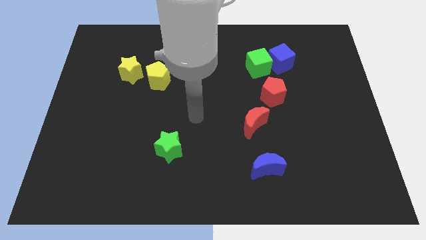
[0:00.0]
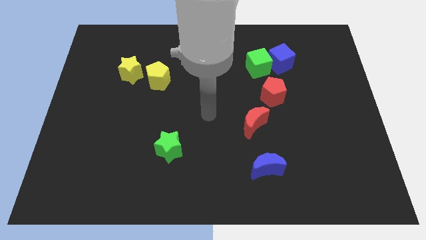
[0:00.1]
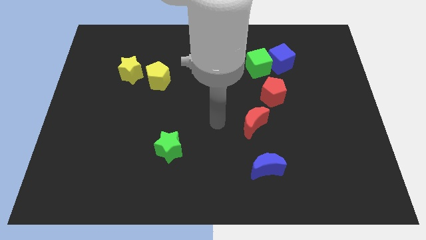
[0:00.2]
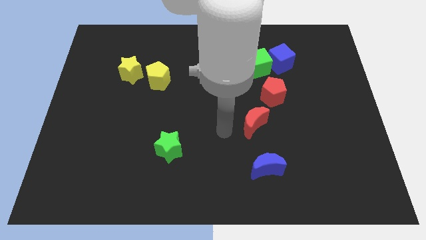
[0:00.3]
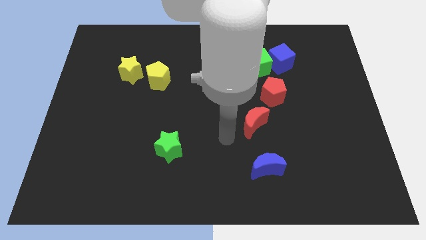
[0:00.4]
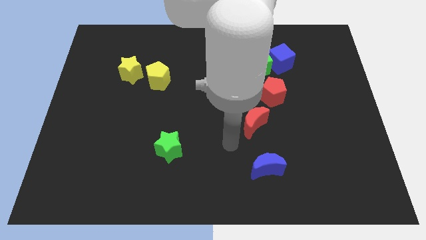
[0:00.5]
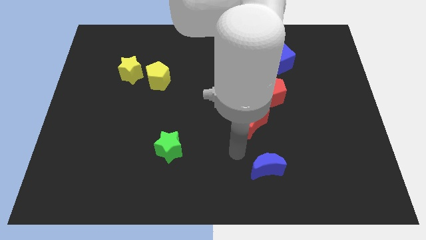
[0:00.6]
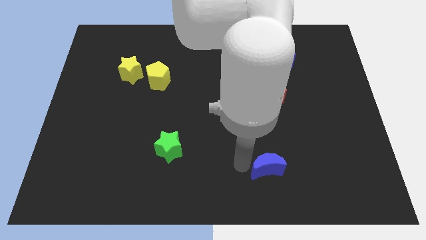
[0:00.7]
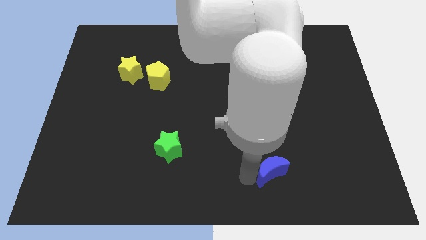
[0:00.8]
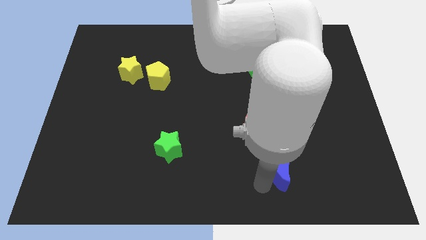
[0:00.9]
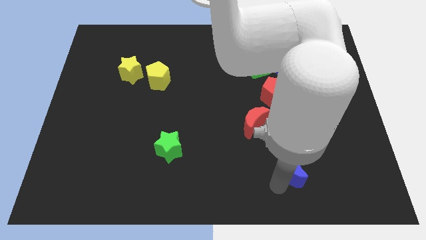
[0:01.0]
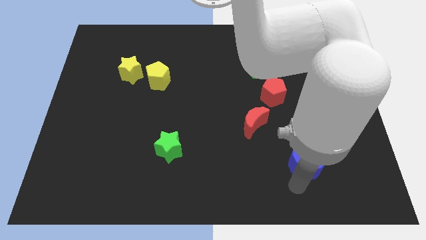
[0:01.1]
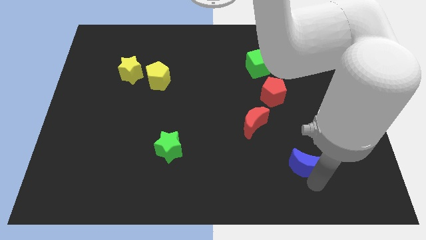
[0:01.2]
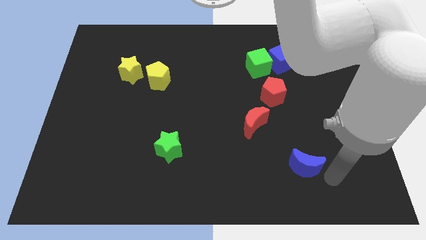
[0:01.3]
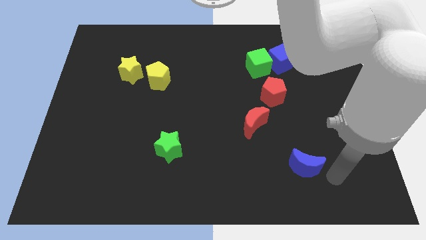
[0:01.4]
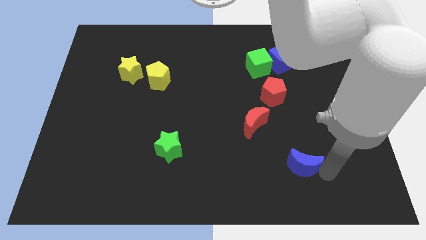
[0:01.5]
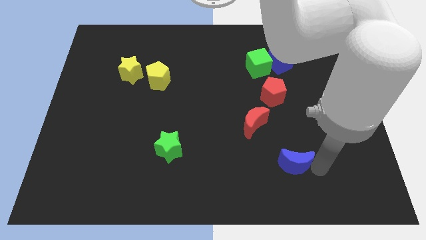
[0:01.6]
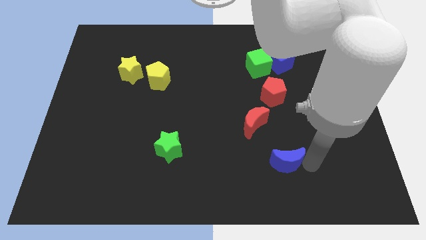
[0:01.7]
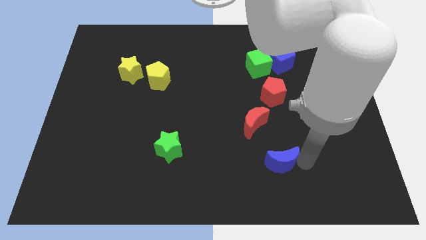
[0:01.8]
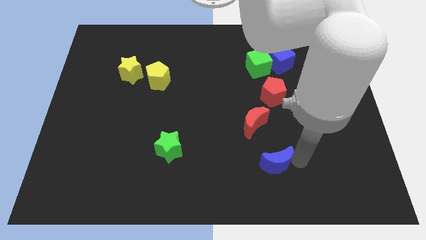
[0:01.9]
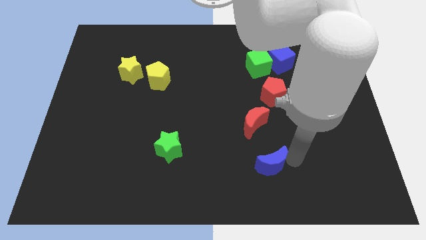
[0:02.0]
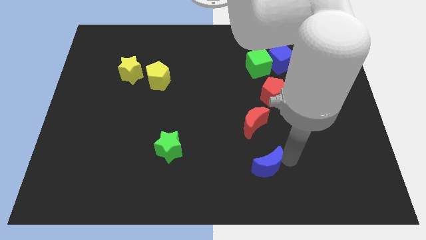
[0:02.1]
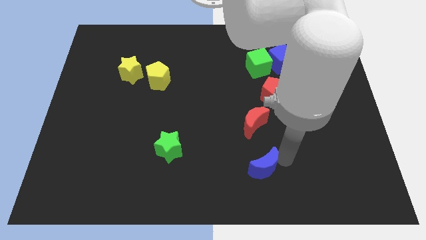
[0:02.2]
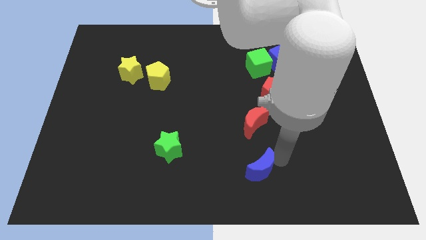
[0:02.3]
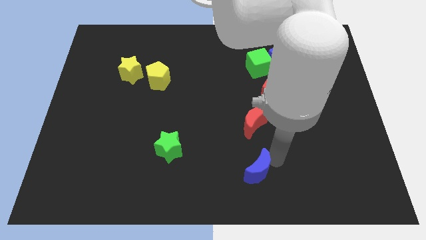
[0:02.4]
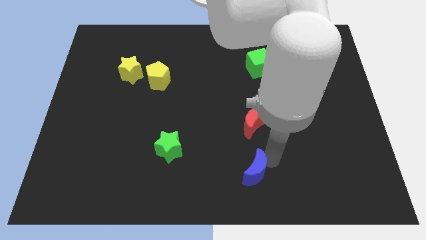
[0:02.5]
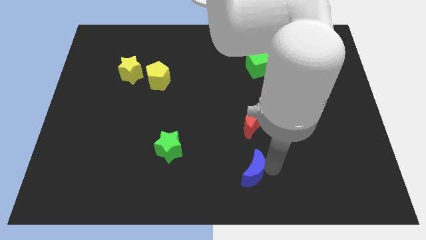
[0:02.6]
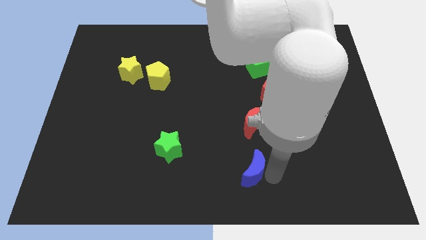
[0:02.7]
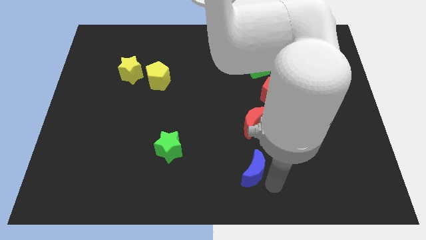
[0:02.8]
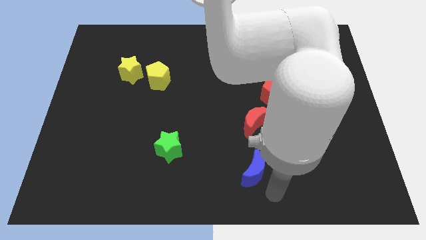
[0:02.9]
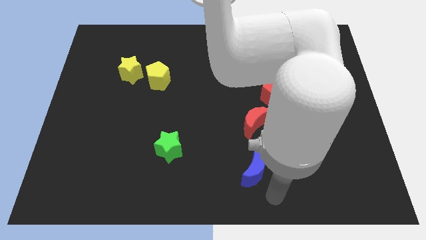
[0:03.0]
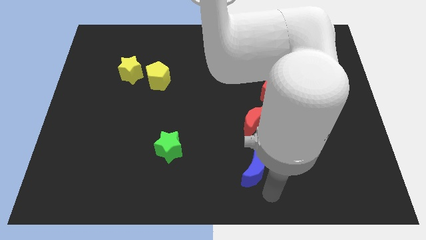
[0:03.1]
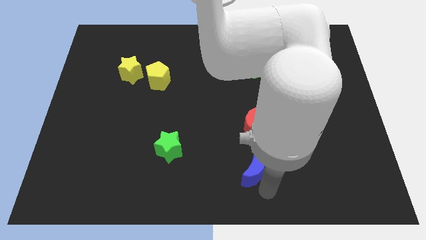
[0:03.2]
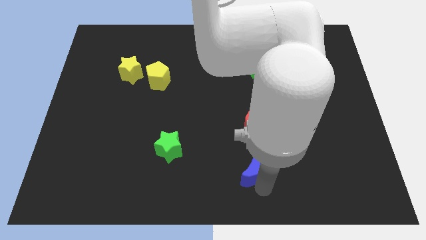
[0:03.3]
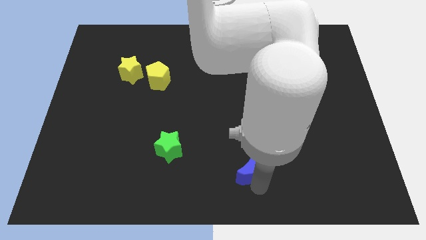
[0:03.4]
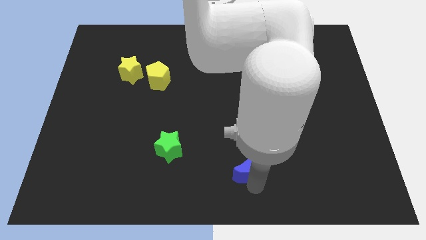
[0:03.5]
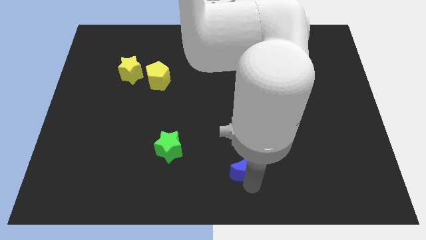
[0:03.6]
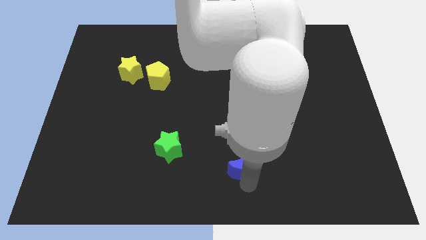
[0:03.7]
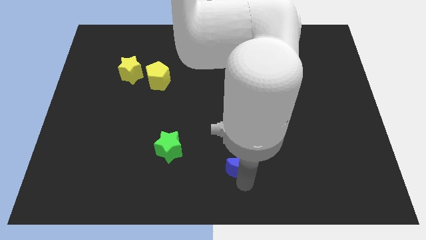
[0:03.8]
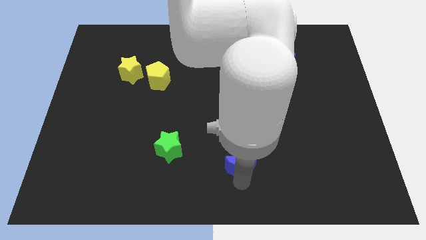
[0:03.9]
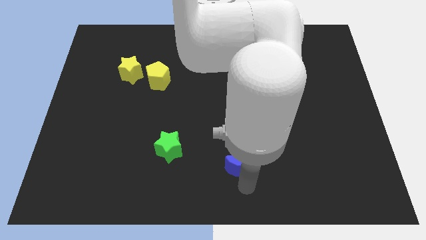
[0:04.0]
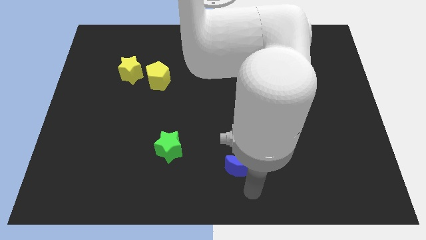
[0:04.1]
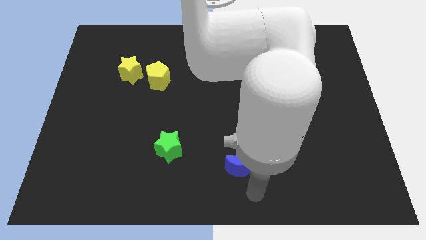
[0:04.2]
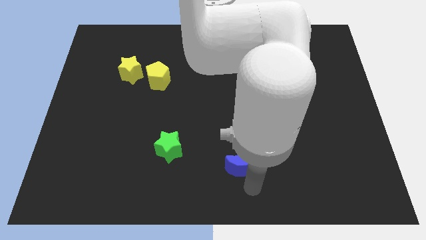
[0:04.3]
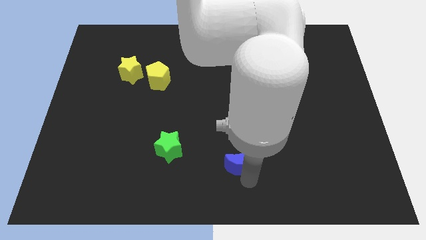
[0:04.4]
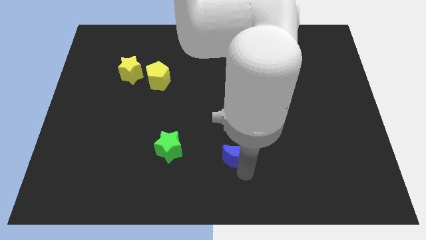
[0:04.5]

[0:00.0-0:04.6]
put the blue moon to the bottom left side of the red moon

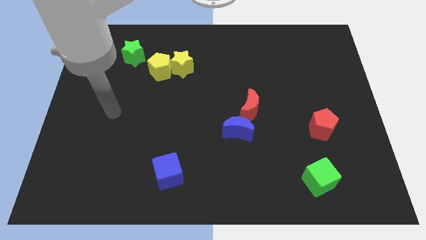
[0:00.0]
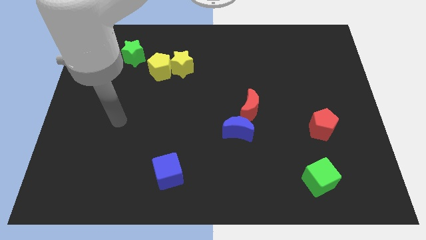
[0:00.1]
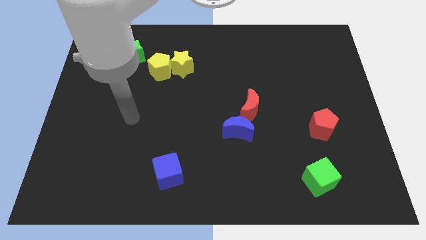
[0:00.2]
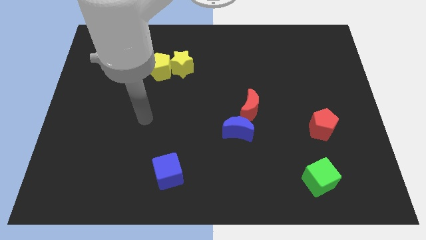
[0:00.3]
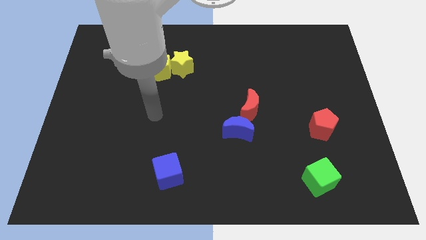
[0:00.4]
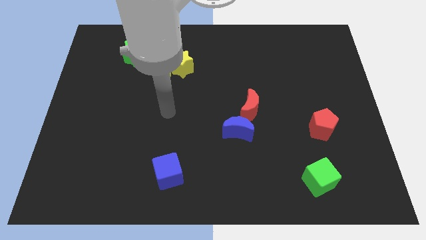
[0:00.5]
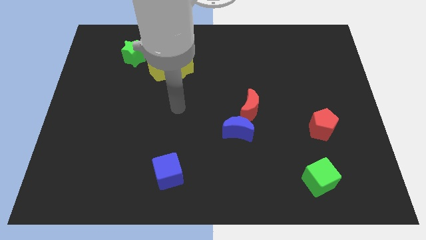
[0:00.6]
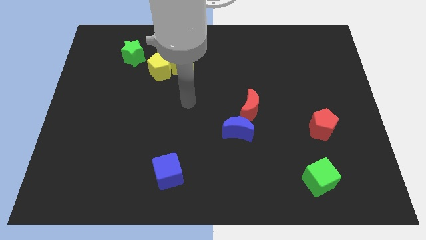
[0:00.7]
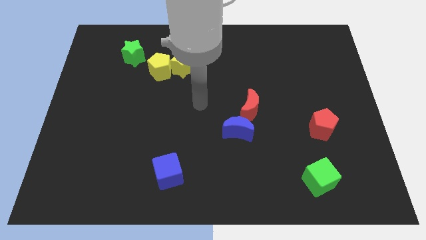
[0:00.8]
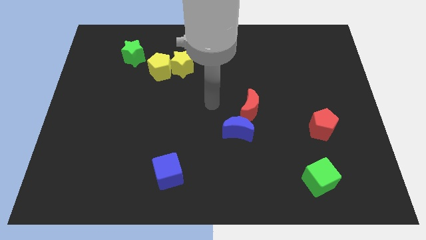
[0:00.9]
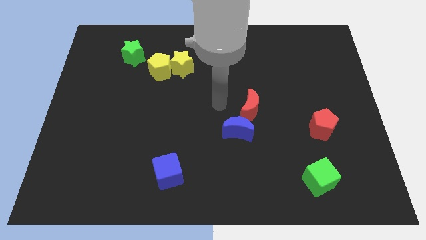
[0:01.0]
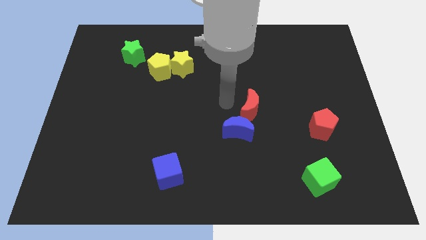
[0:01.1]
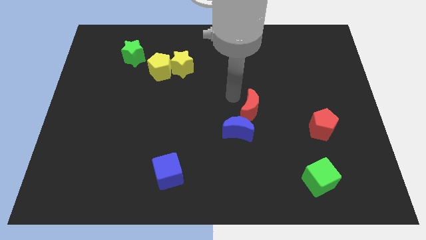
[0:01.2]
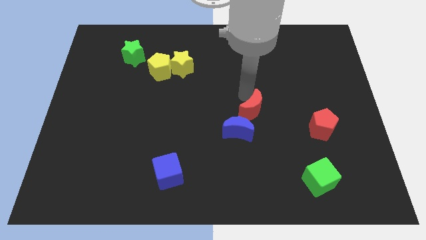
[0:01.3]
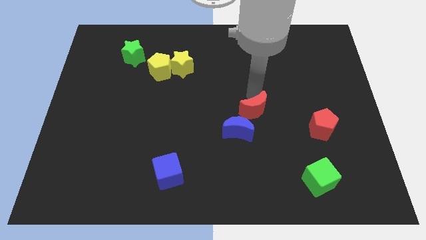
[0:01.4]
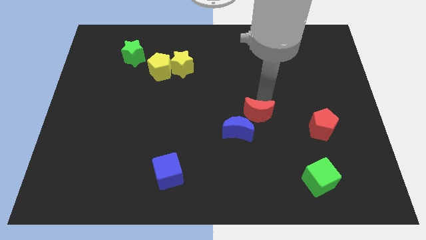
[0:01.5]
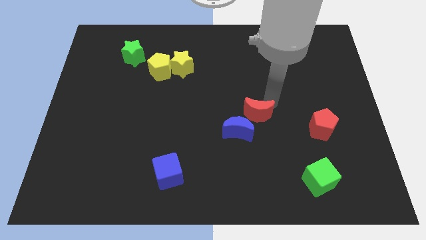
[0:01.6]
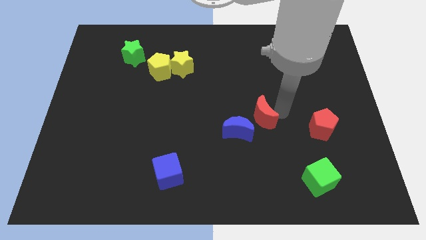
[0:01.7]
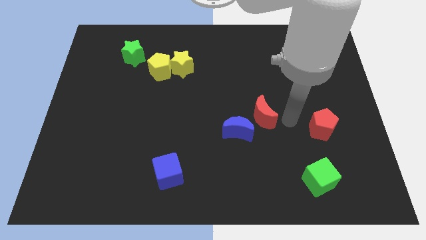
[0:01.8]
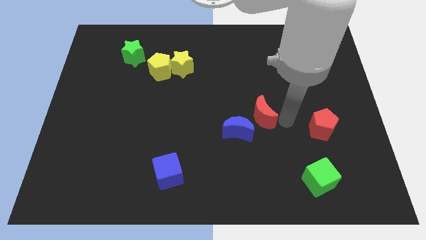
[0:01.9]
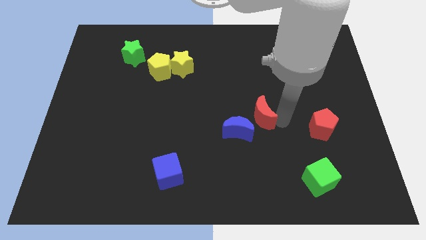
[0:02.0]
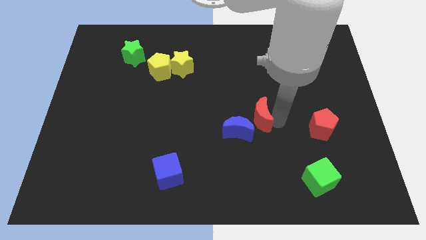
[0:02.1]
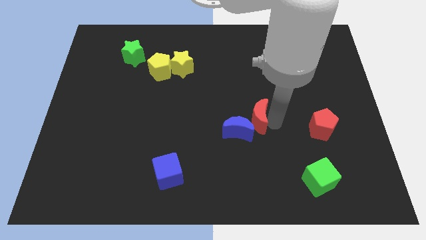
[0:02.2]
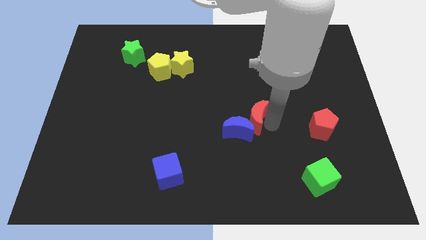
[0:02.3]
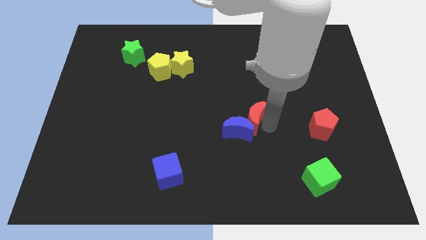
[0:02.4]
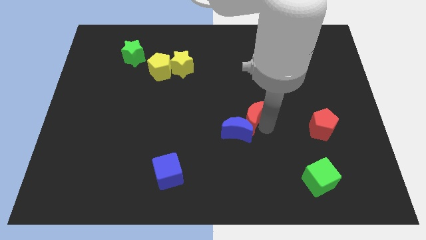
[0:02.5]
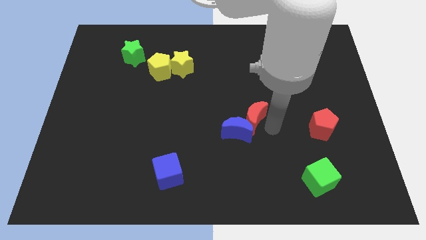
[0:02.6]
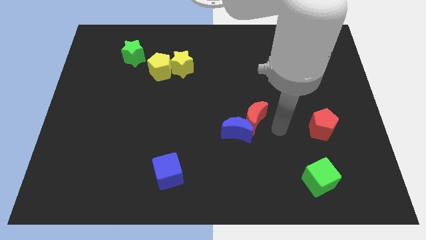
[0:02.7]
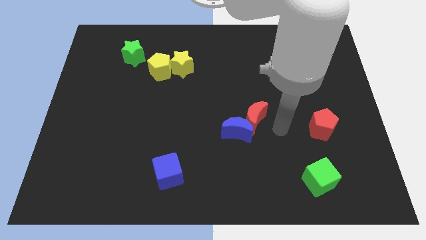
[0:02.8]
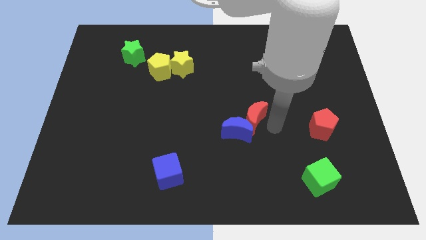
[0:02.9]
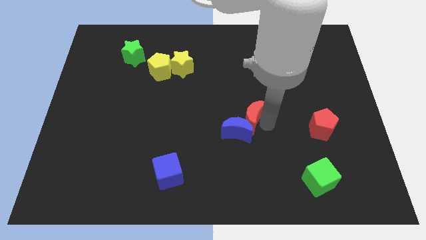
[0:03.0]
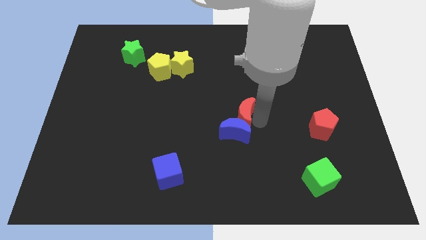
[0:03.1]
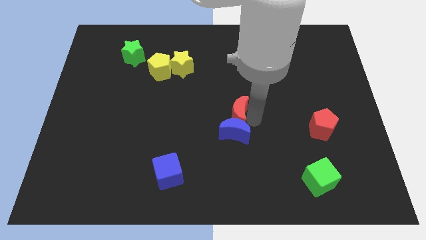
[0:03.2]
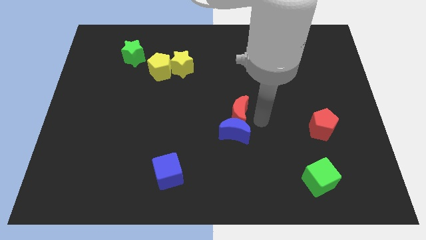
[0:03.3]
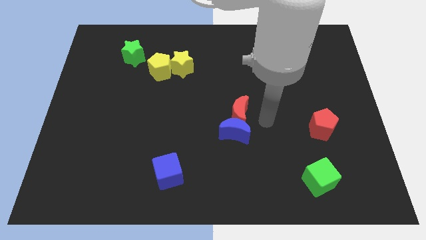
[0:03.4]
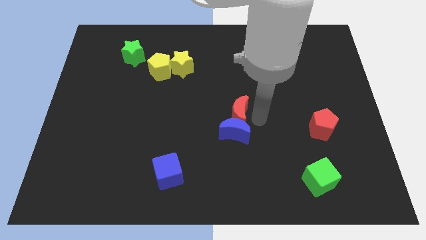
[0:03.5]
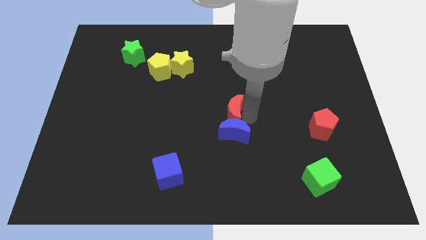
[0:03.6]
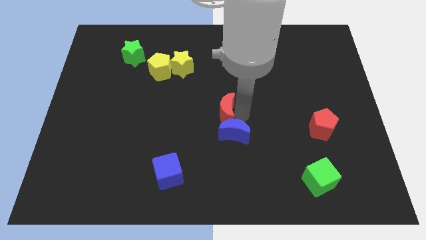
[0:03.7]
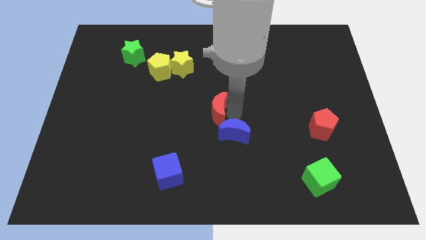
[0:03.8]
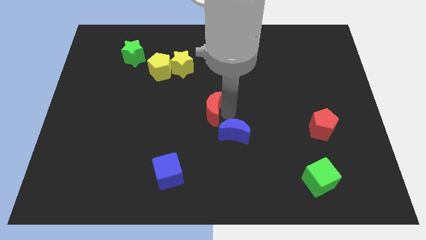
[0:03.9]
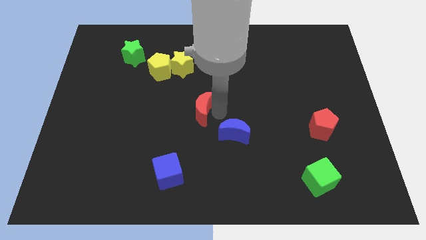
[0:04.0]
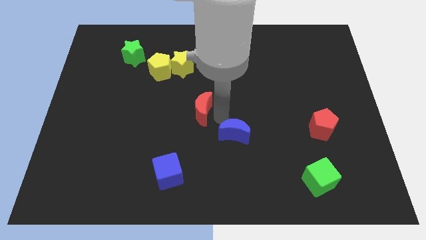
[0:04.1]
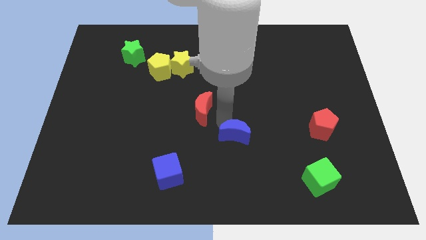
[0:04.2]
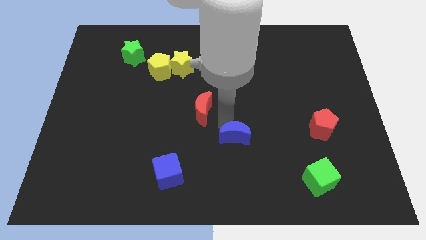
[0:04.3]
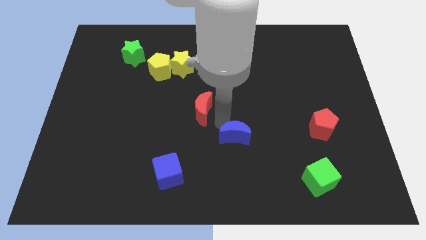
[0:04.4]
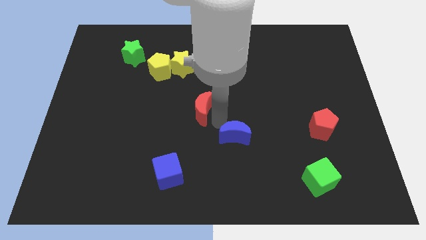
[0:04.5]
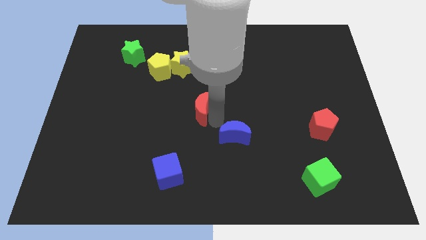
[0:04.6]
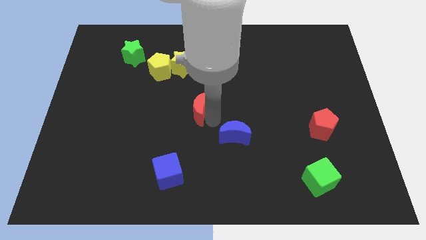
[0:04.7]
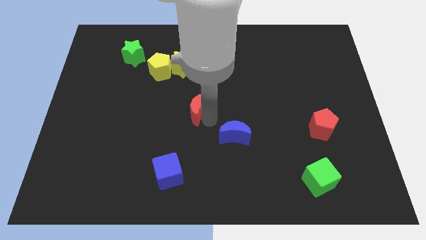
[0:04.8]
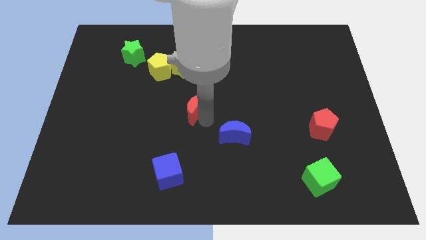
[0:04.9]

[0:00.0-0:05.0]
put the red moon below the yellow star
